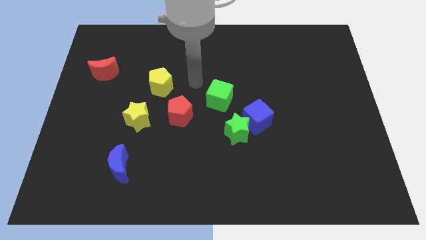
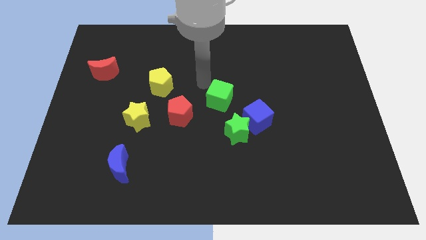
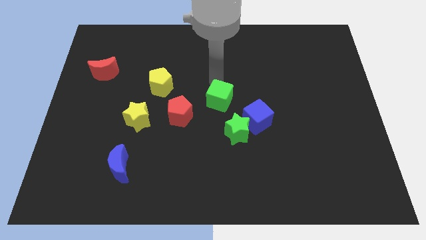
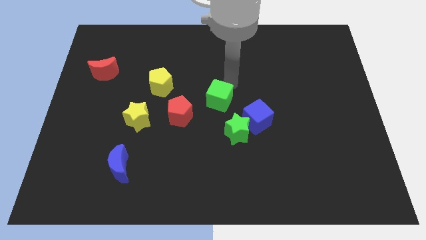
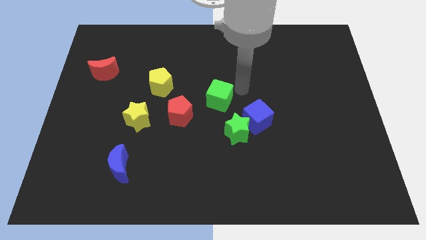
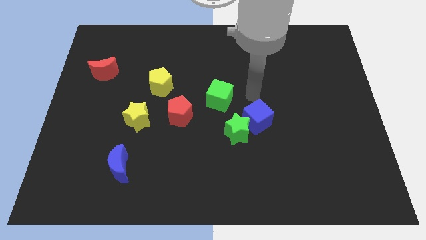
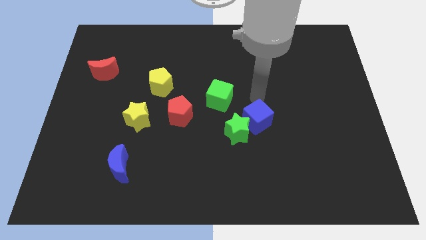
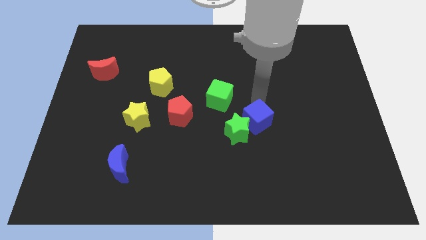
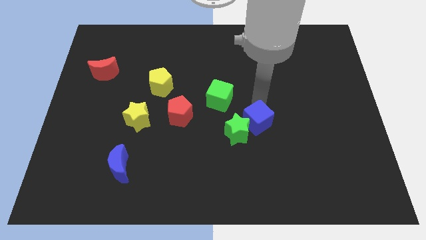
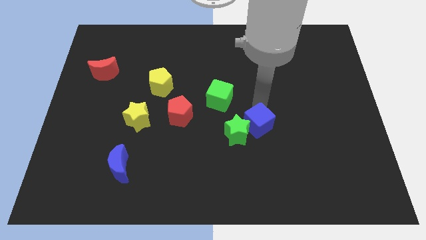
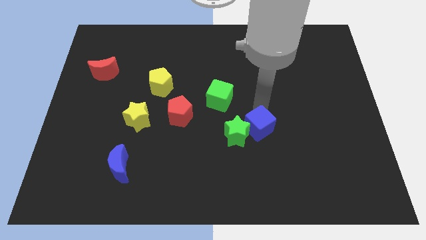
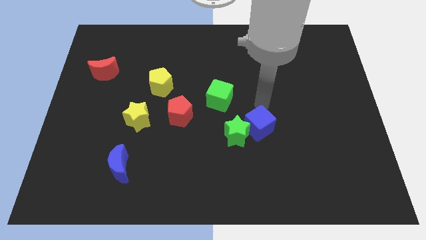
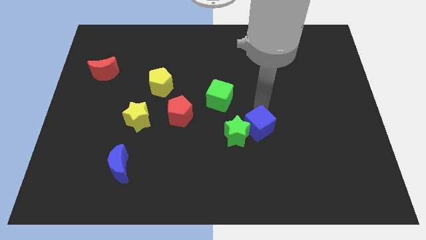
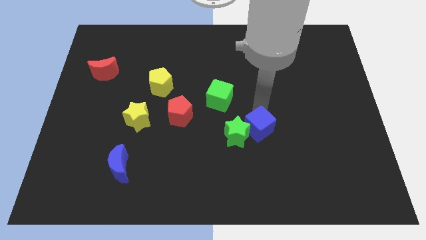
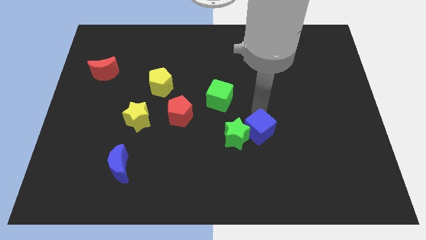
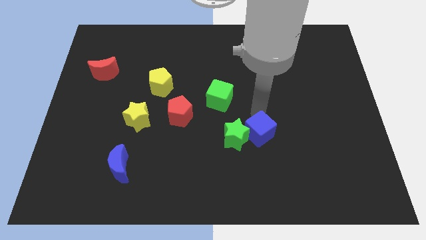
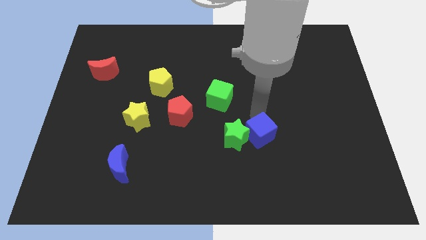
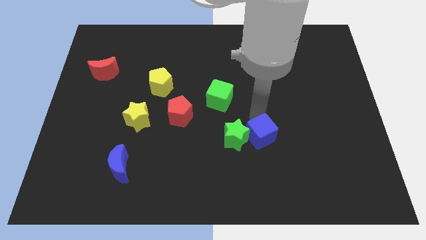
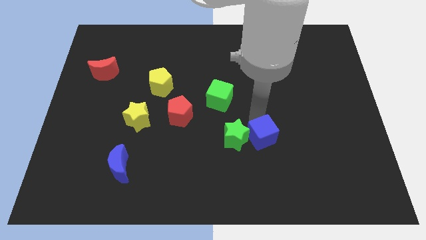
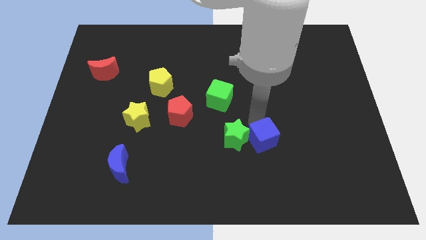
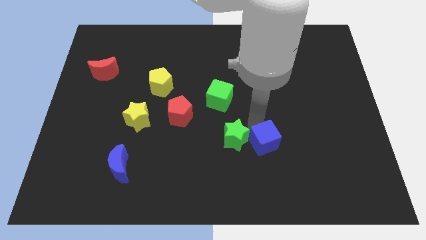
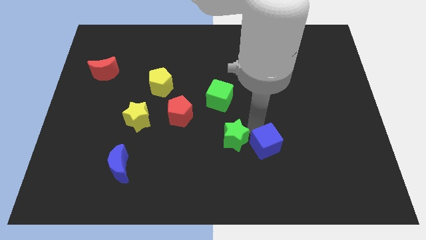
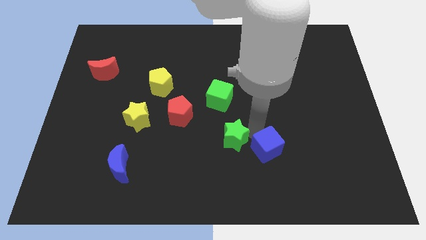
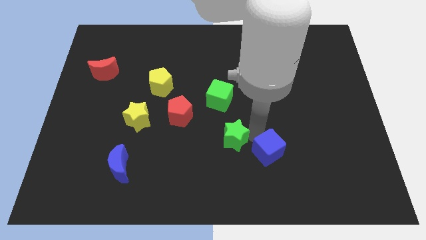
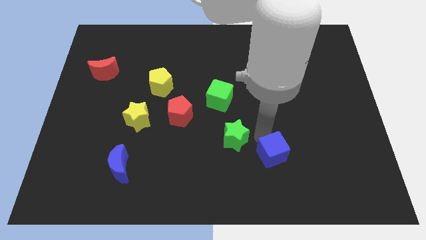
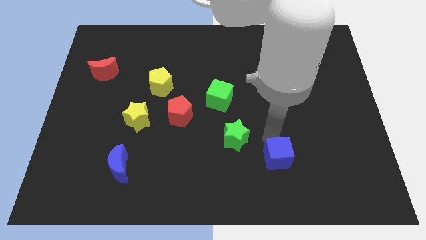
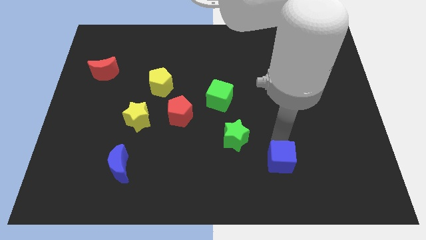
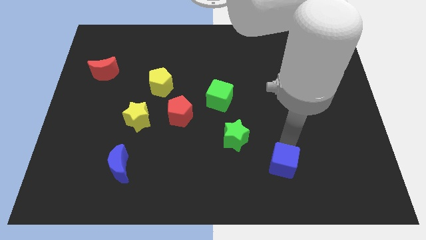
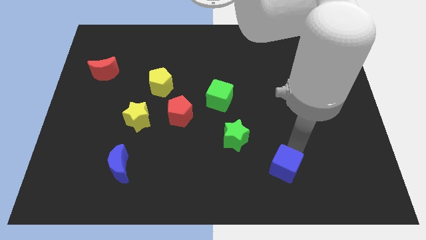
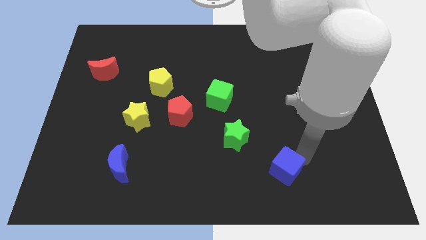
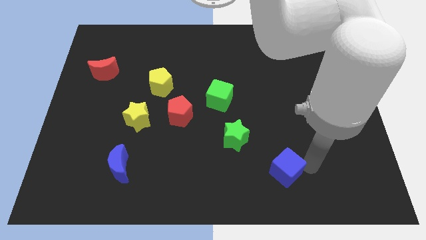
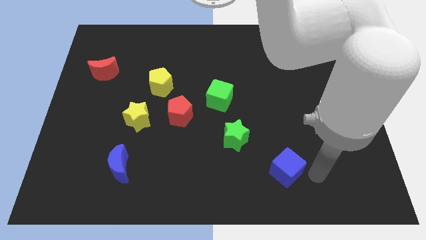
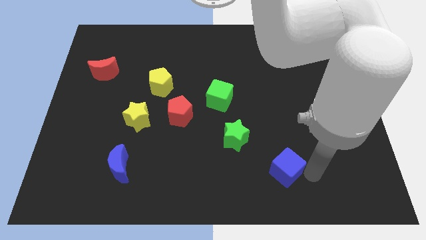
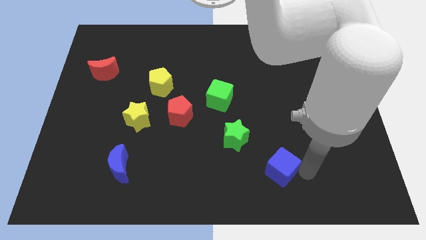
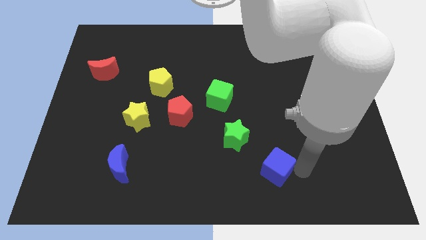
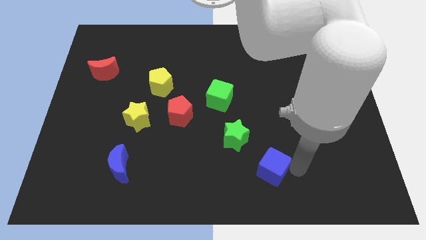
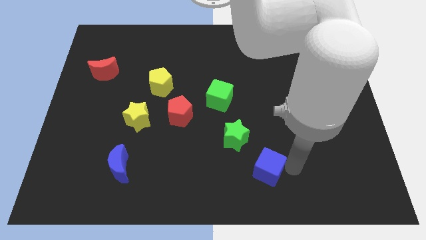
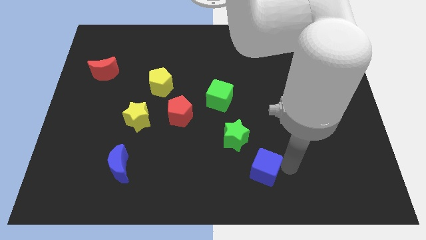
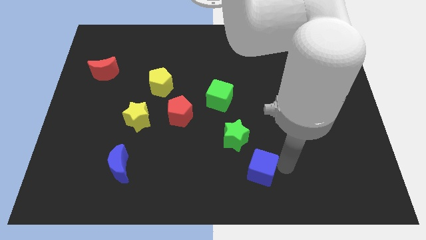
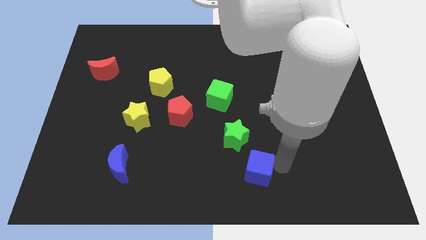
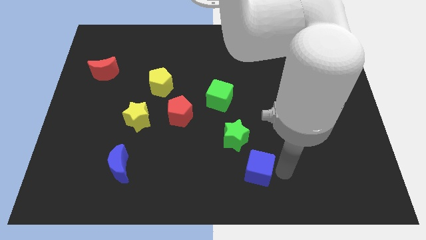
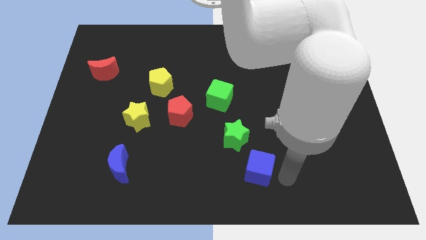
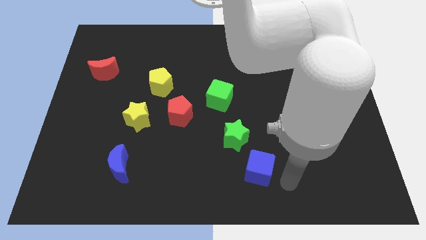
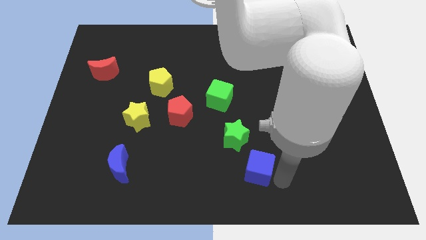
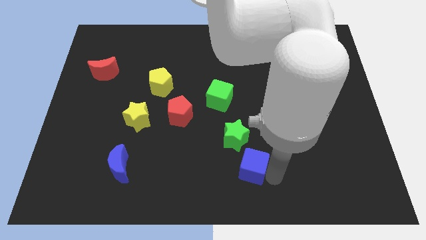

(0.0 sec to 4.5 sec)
push the blue cube diagonally downwards and to the left somewhat

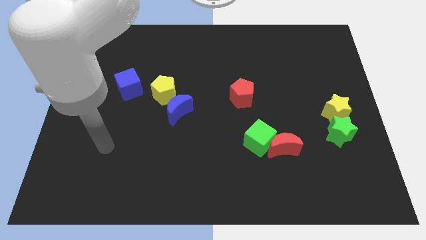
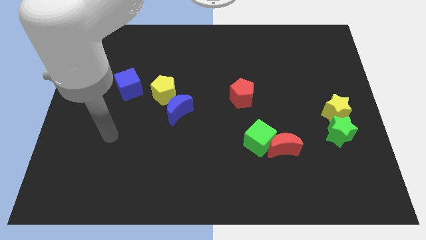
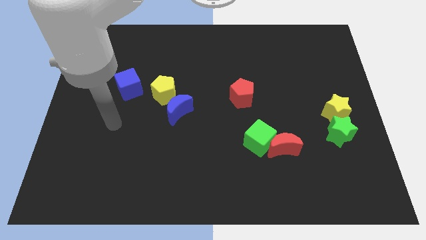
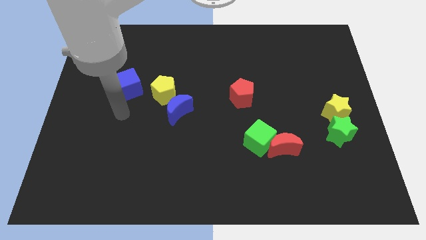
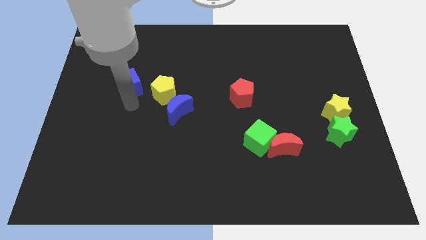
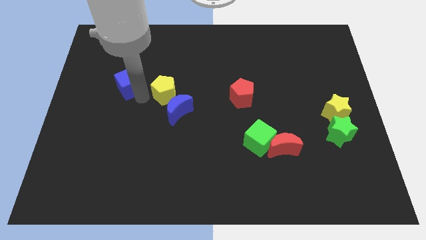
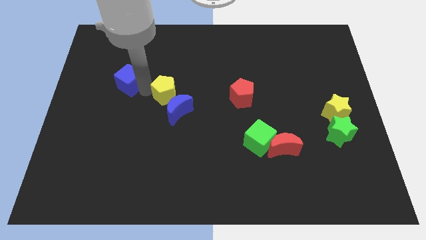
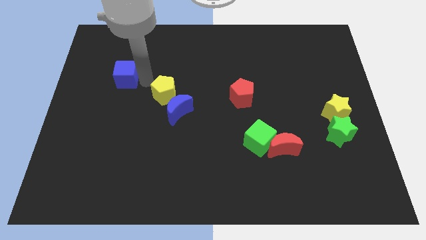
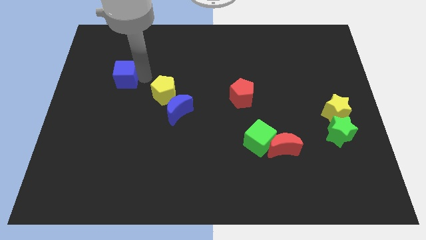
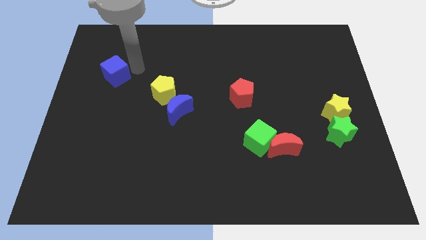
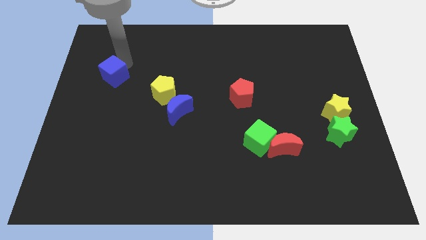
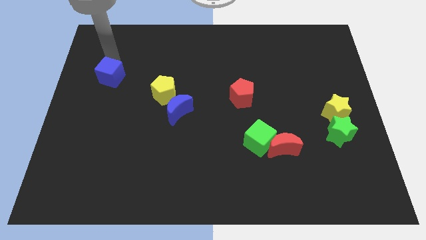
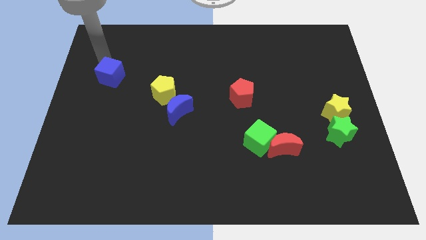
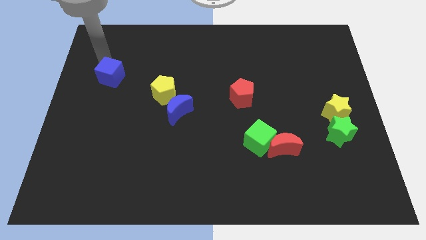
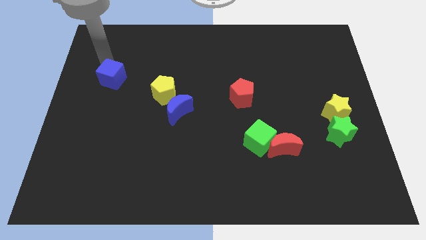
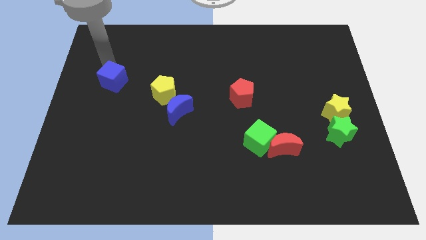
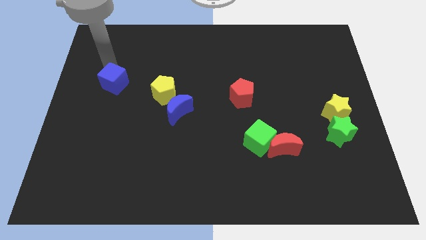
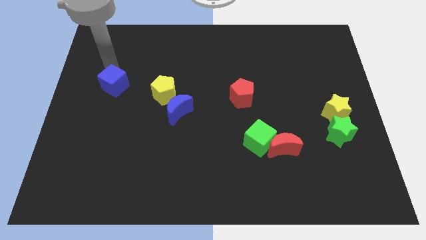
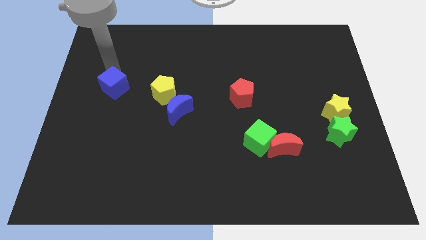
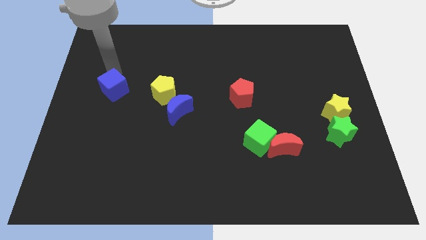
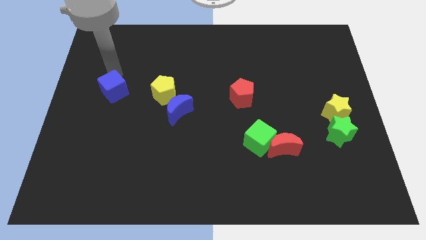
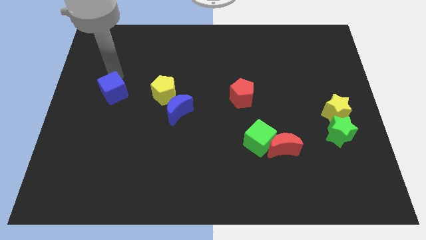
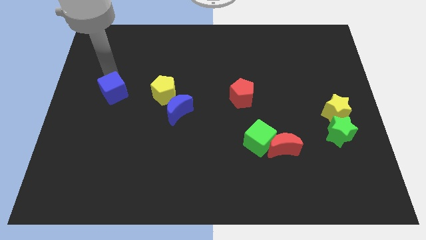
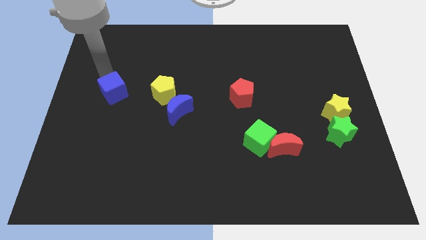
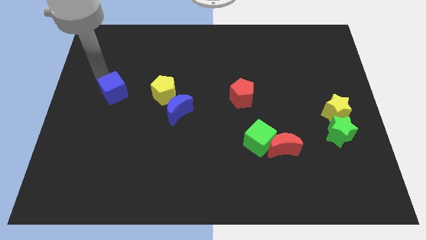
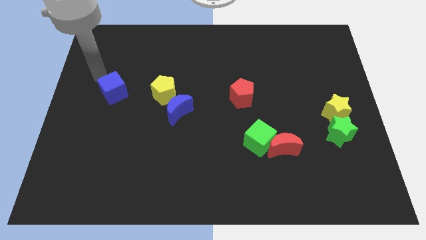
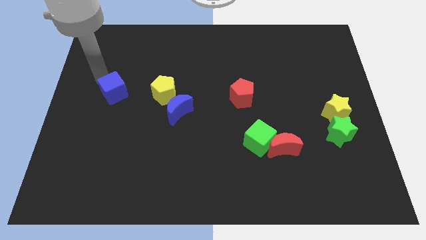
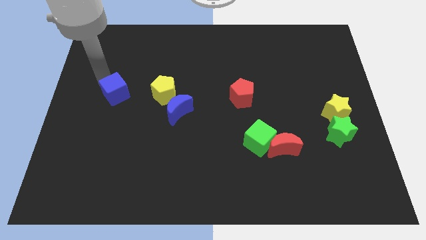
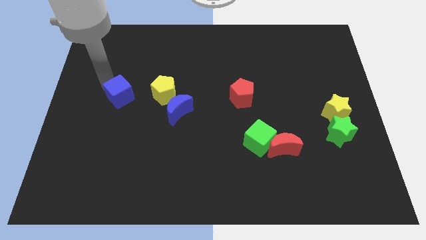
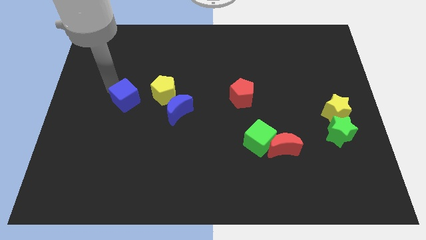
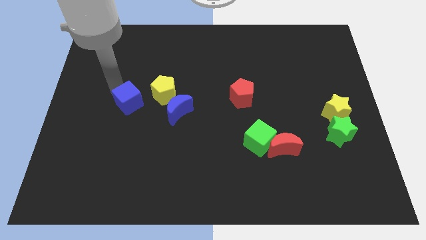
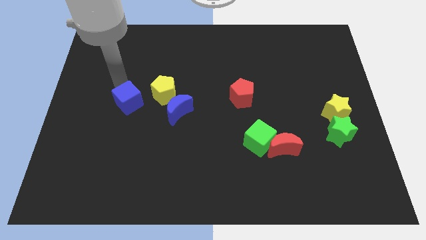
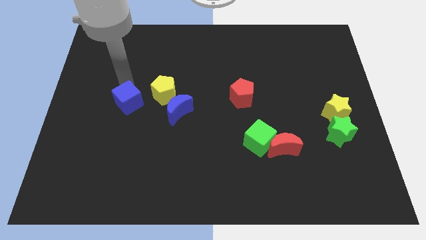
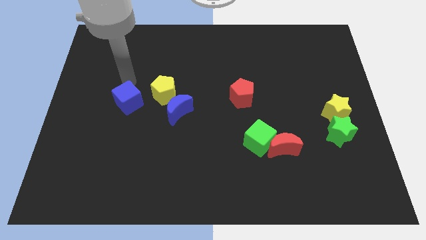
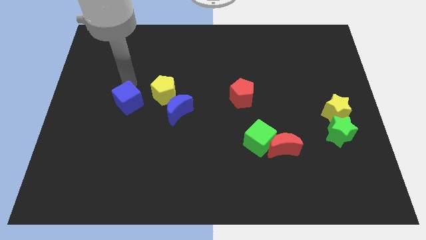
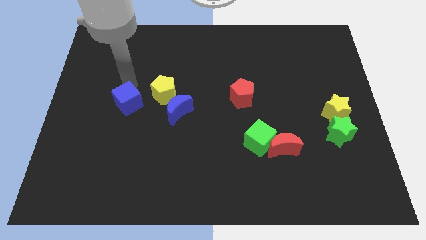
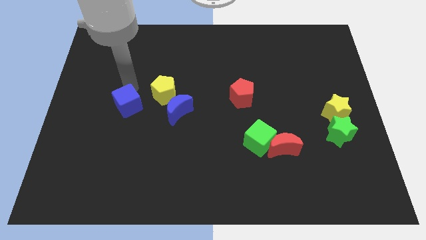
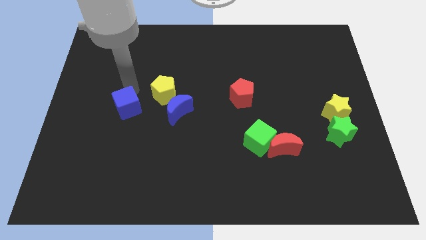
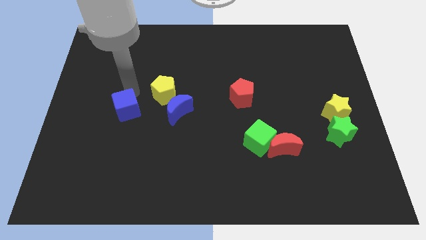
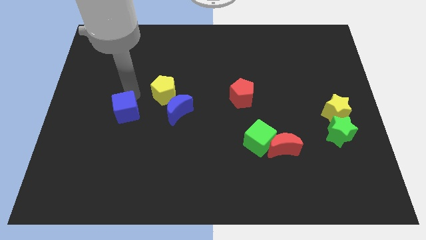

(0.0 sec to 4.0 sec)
move the blue cube down a little bit

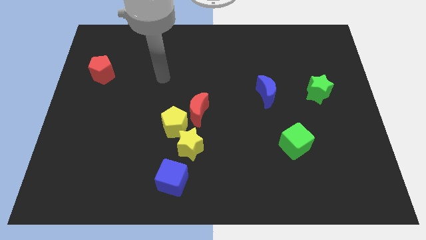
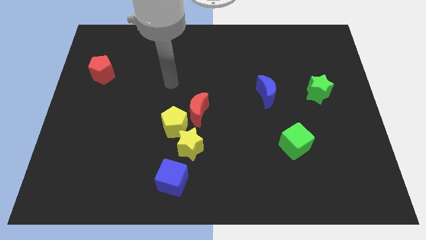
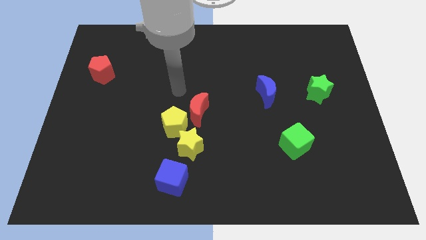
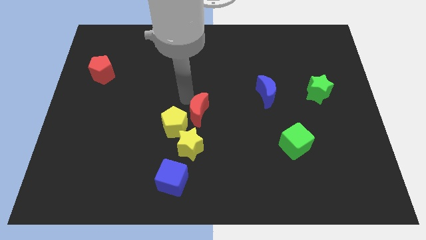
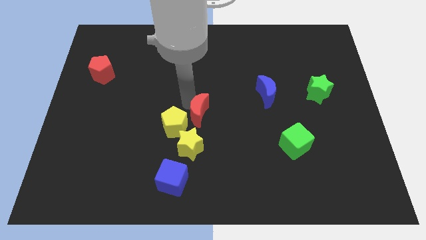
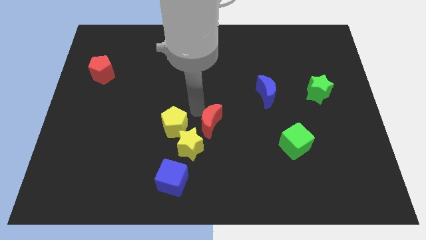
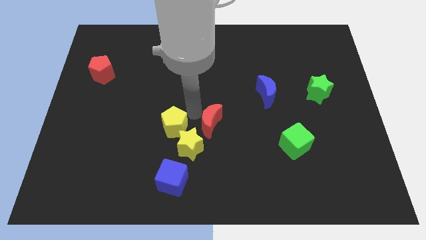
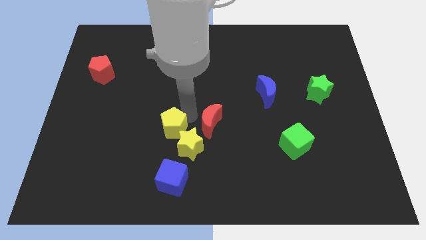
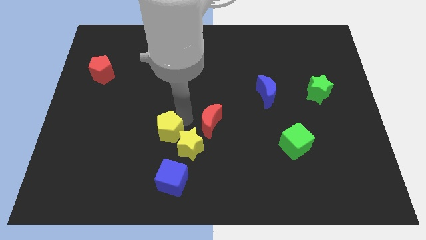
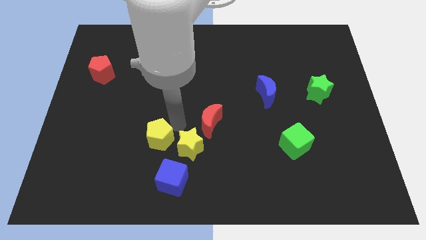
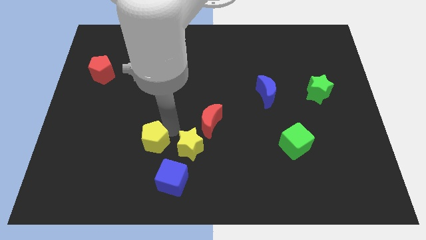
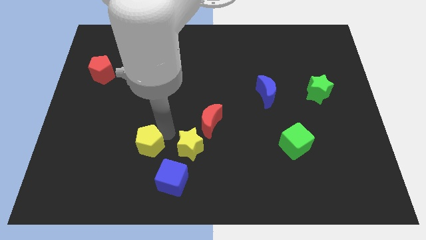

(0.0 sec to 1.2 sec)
slide the yellow pentagon slightly down and to the left
